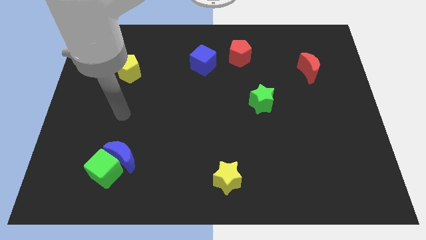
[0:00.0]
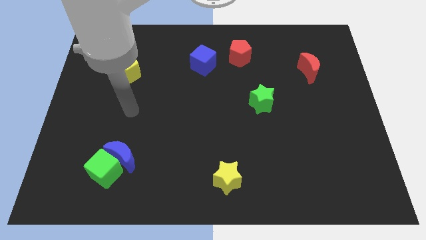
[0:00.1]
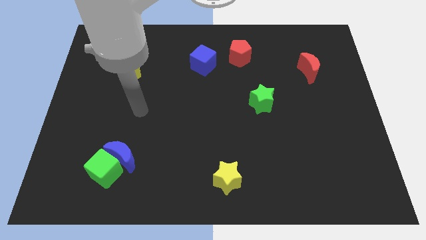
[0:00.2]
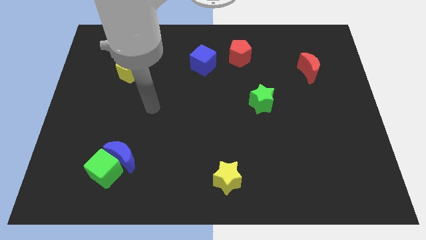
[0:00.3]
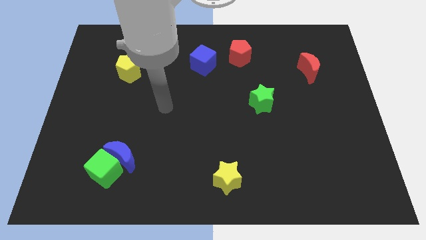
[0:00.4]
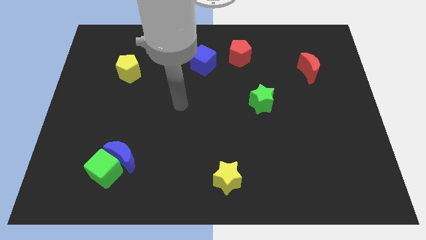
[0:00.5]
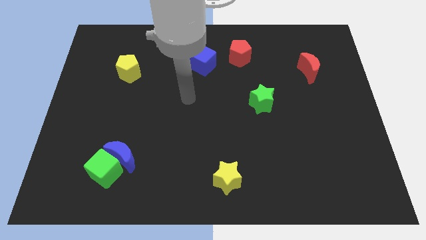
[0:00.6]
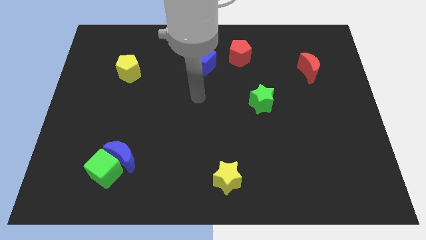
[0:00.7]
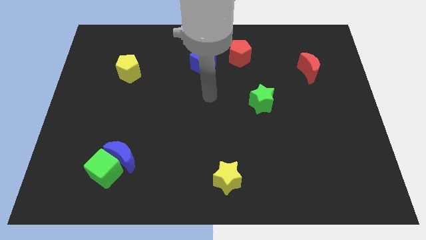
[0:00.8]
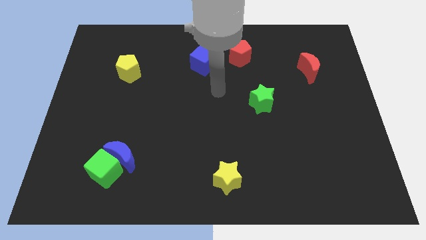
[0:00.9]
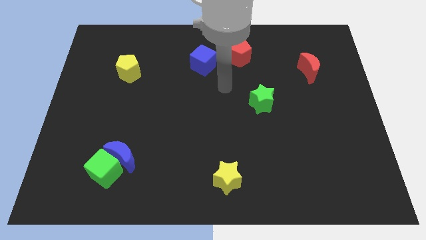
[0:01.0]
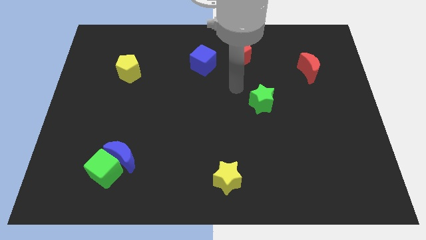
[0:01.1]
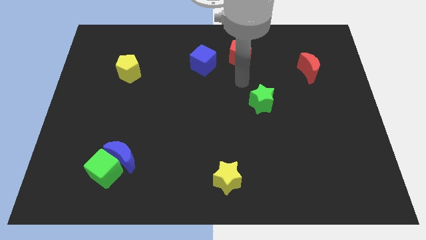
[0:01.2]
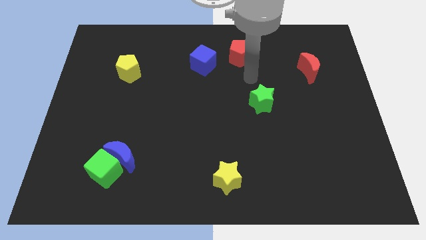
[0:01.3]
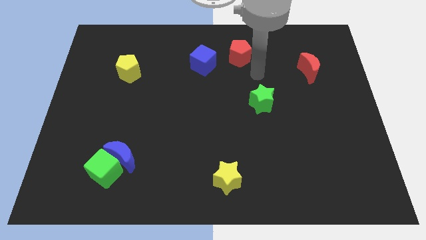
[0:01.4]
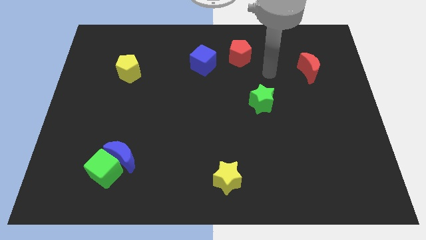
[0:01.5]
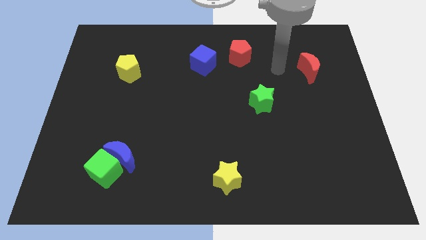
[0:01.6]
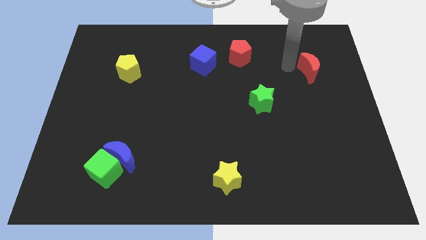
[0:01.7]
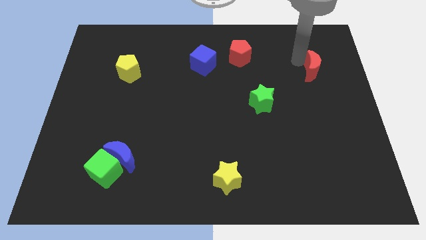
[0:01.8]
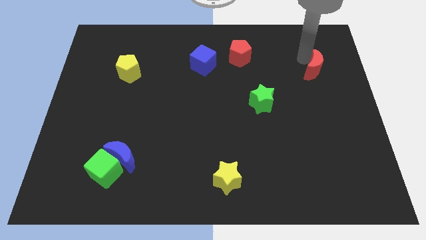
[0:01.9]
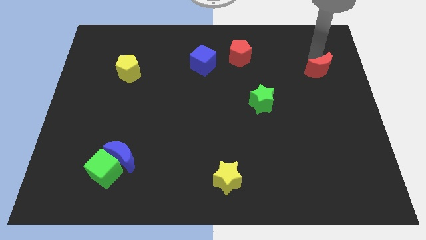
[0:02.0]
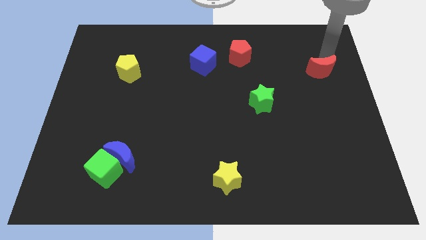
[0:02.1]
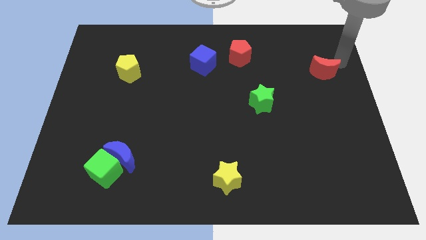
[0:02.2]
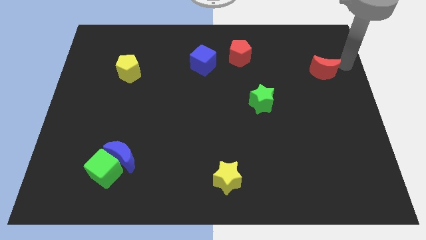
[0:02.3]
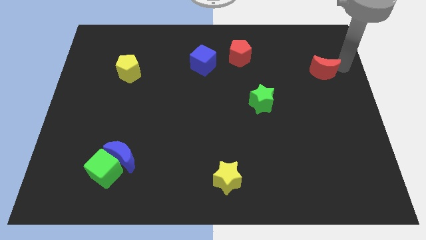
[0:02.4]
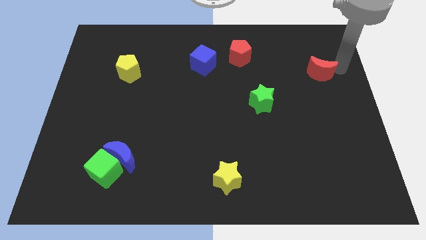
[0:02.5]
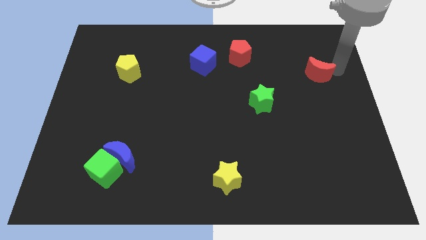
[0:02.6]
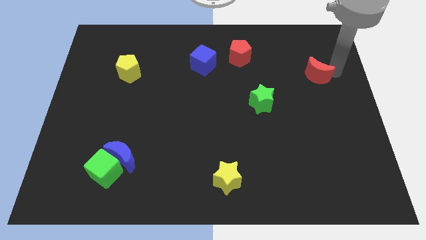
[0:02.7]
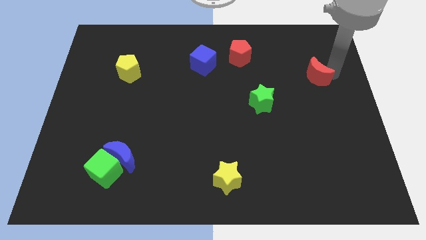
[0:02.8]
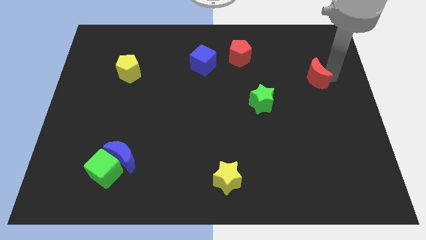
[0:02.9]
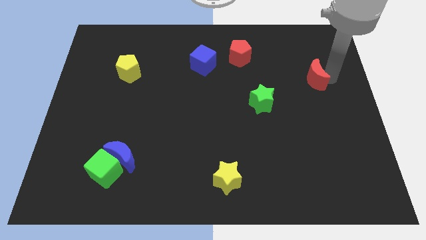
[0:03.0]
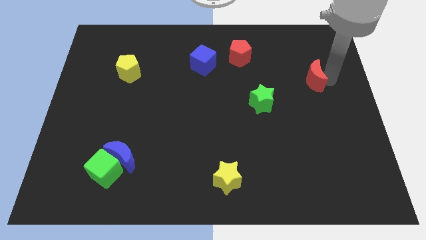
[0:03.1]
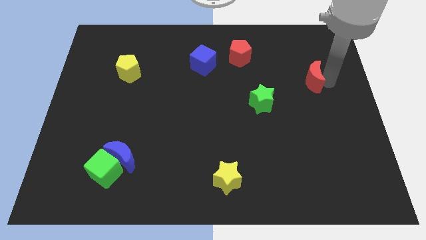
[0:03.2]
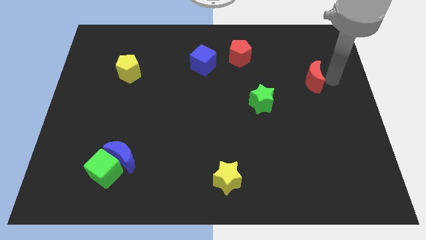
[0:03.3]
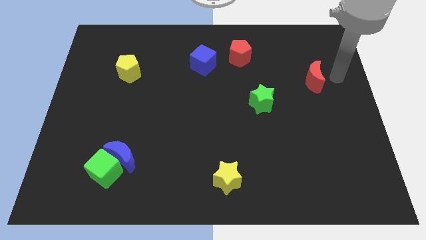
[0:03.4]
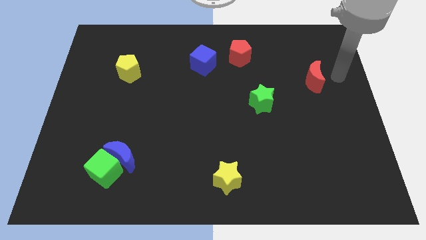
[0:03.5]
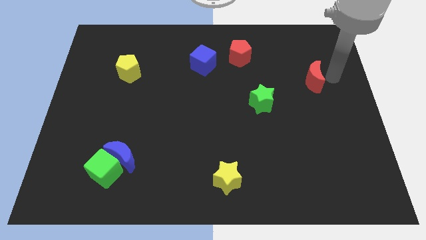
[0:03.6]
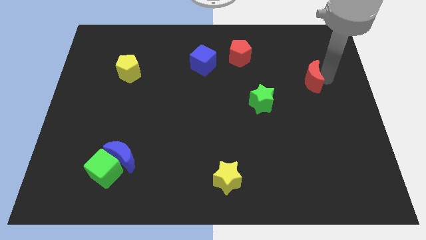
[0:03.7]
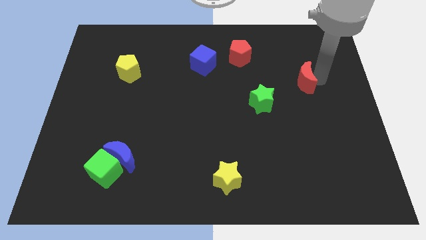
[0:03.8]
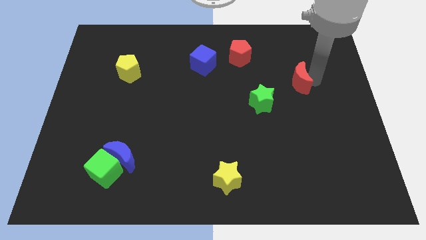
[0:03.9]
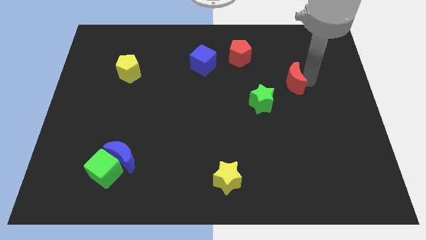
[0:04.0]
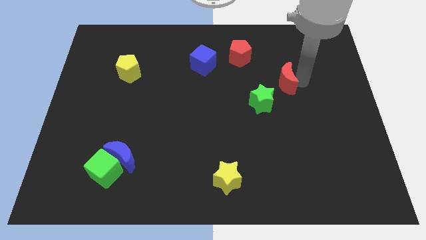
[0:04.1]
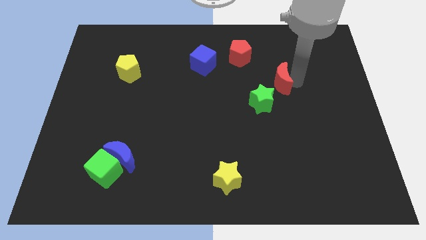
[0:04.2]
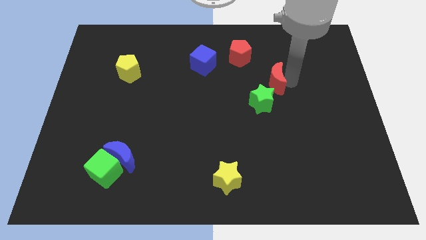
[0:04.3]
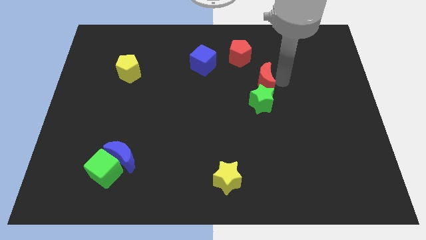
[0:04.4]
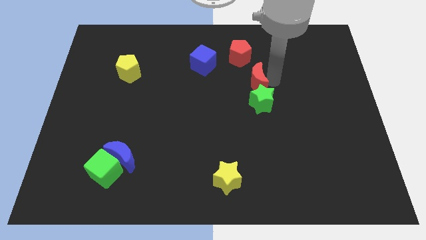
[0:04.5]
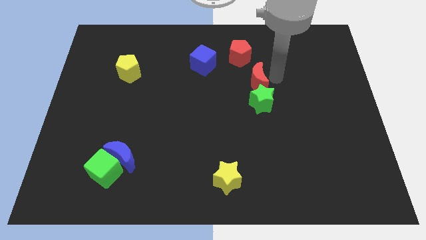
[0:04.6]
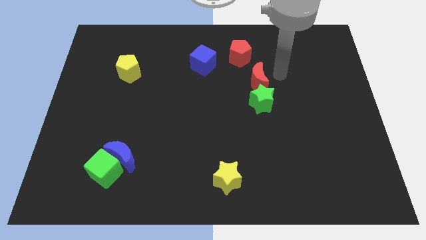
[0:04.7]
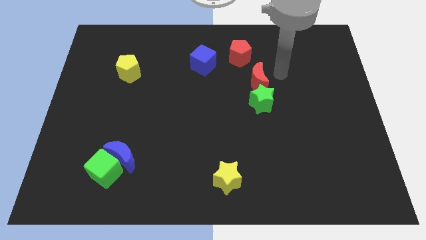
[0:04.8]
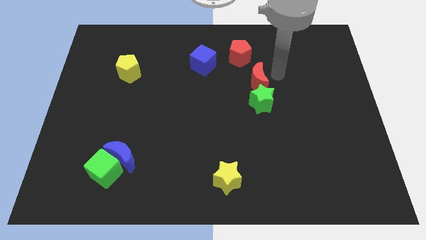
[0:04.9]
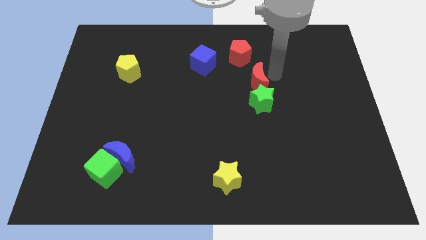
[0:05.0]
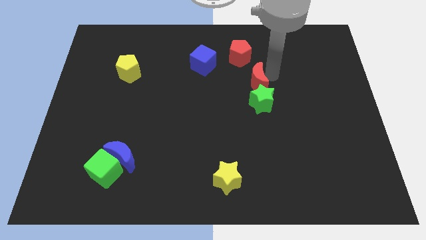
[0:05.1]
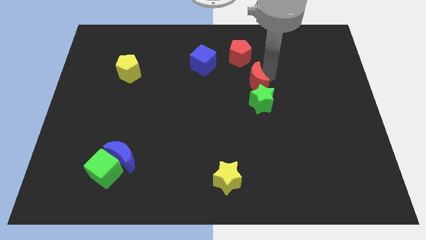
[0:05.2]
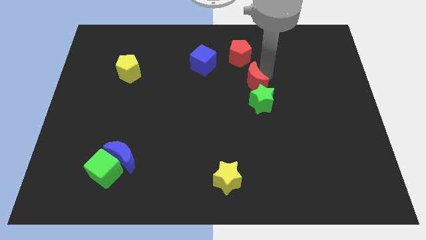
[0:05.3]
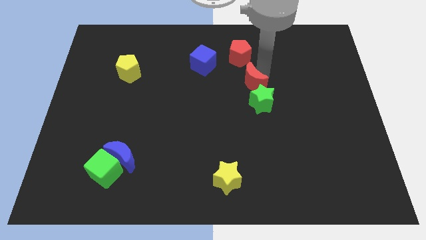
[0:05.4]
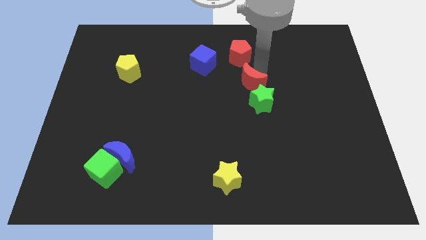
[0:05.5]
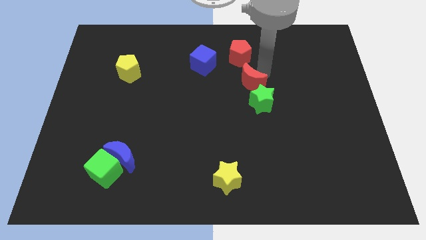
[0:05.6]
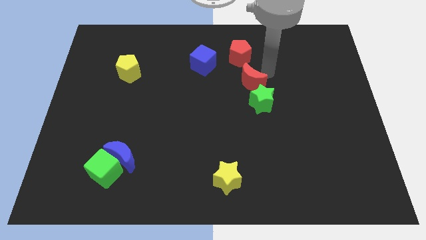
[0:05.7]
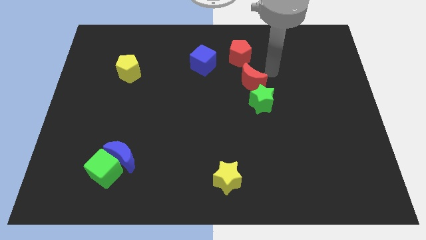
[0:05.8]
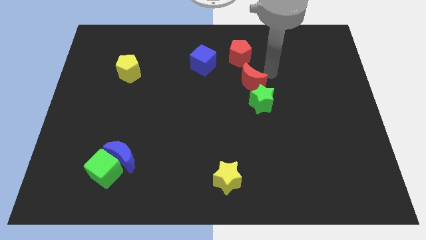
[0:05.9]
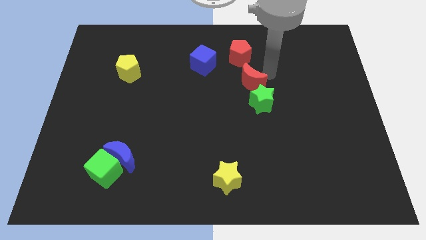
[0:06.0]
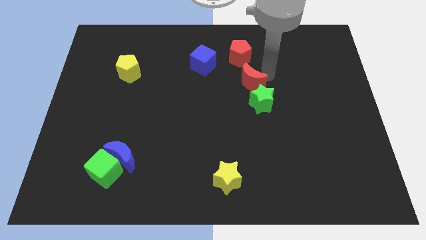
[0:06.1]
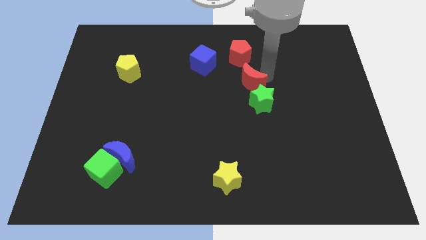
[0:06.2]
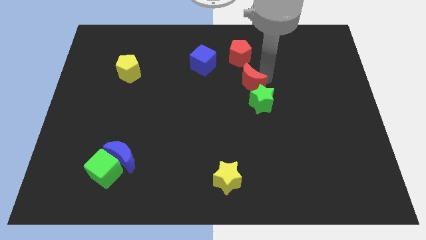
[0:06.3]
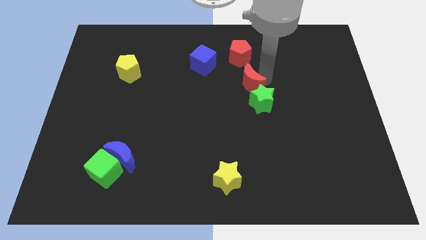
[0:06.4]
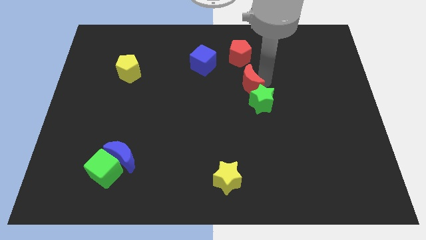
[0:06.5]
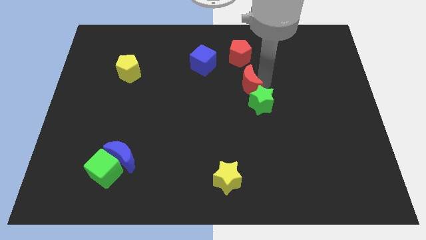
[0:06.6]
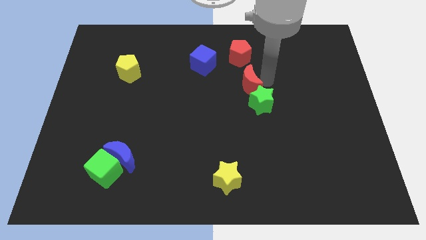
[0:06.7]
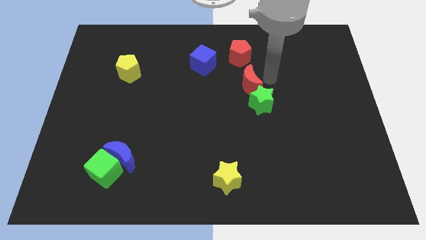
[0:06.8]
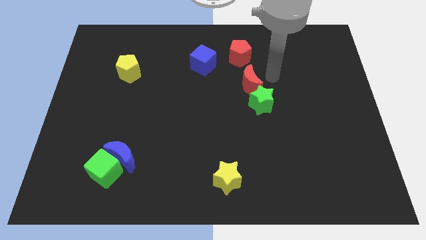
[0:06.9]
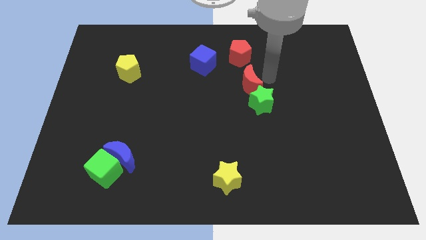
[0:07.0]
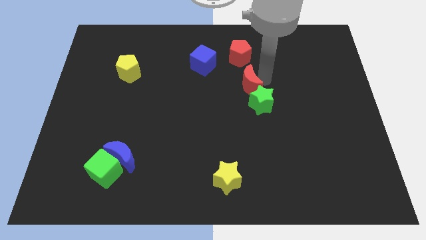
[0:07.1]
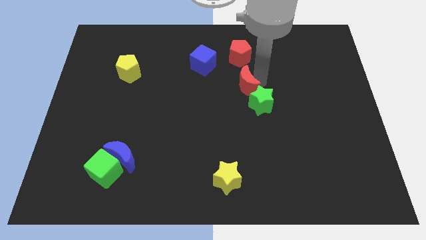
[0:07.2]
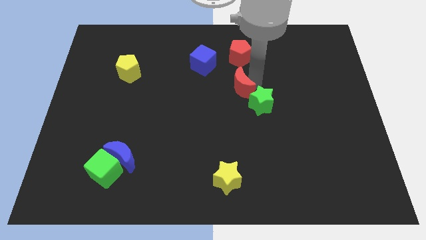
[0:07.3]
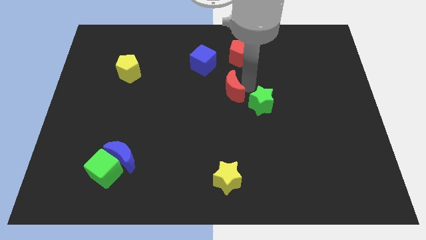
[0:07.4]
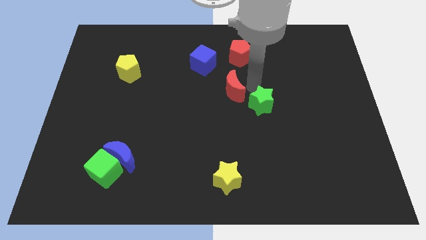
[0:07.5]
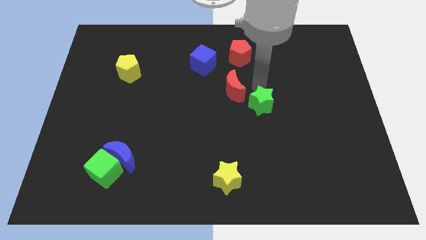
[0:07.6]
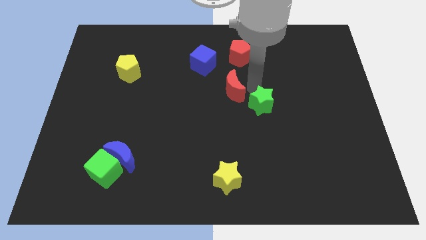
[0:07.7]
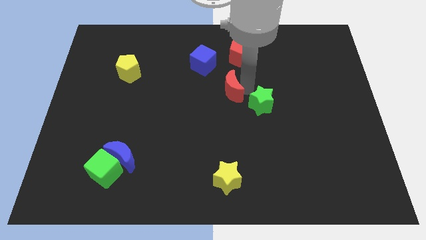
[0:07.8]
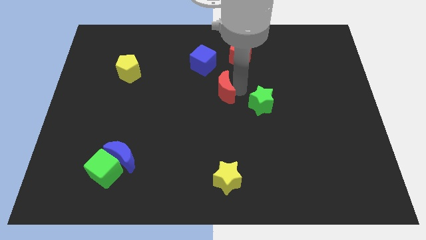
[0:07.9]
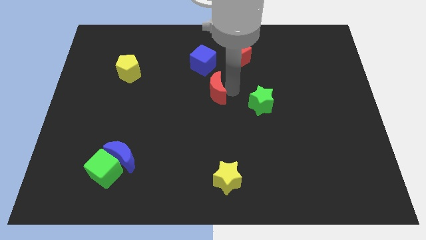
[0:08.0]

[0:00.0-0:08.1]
push the red moon below the blue cube
